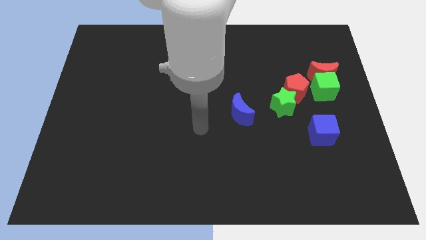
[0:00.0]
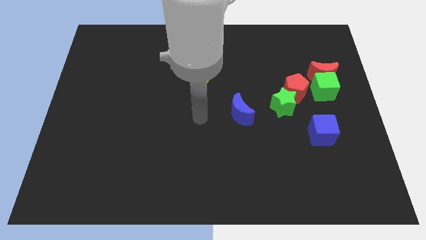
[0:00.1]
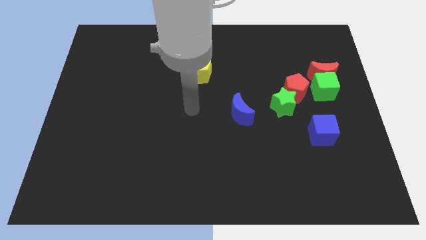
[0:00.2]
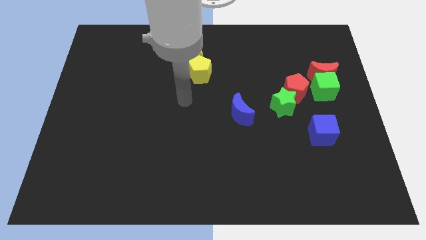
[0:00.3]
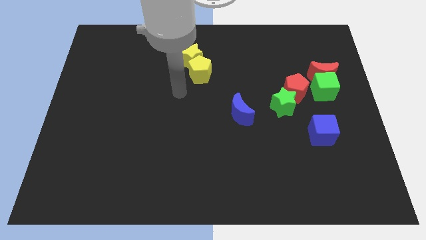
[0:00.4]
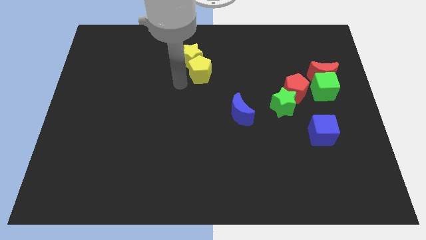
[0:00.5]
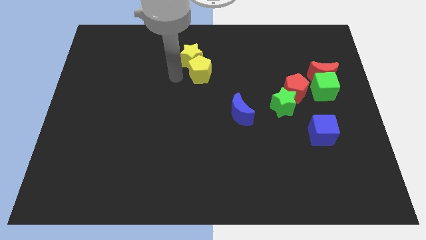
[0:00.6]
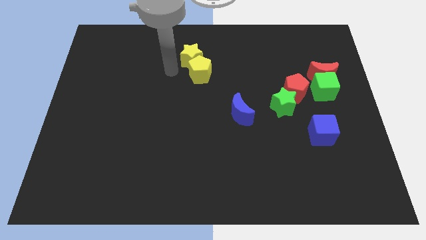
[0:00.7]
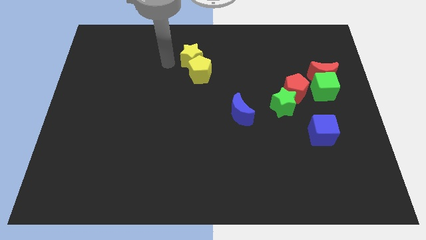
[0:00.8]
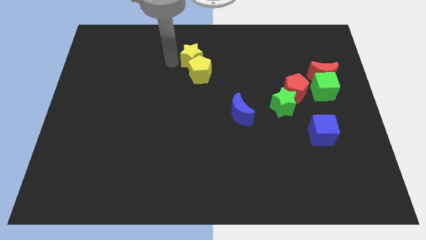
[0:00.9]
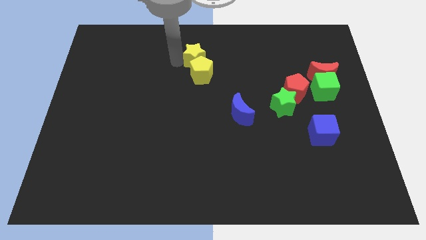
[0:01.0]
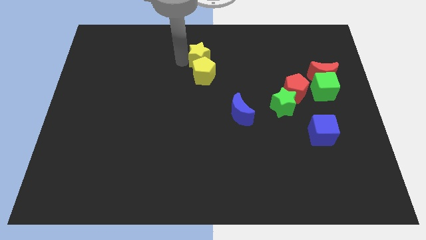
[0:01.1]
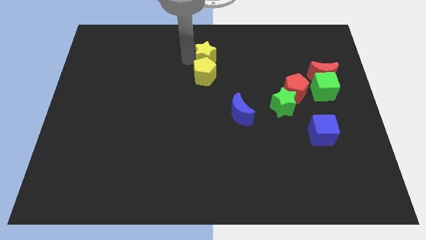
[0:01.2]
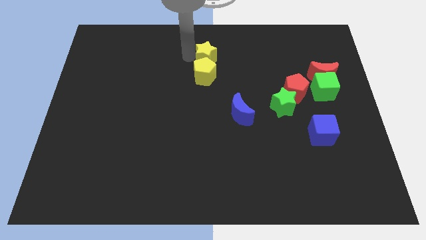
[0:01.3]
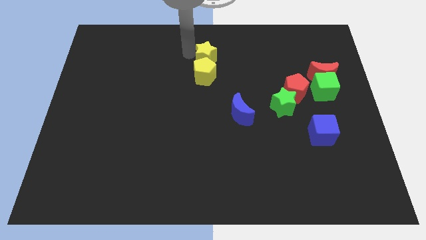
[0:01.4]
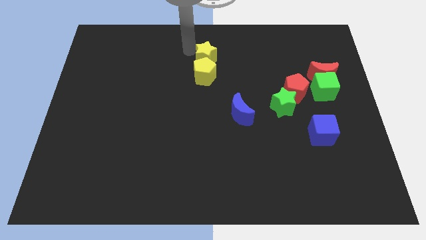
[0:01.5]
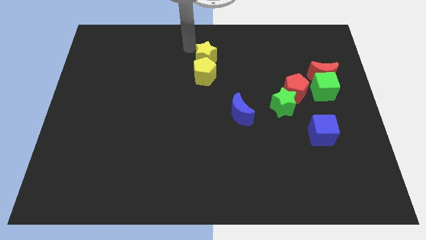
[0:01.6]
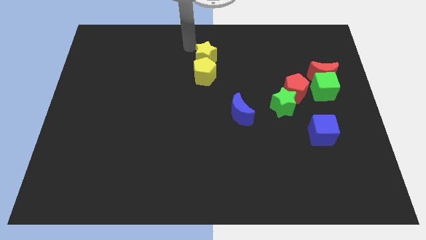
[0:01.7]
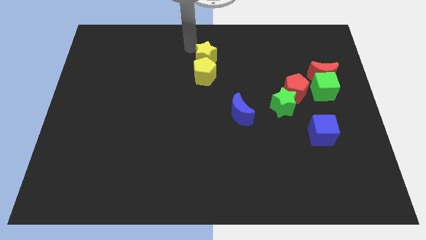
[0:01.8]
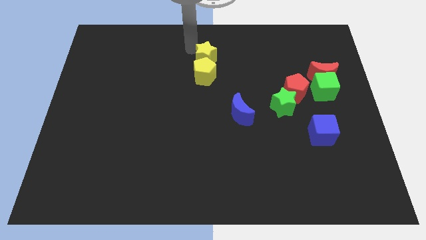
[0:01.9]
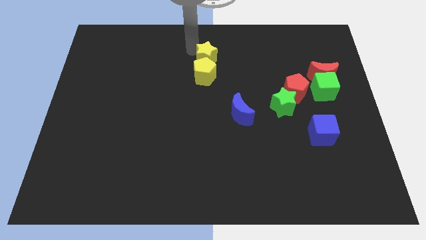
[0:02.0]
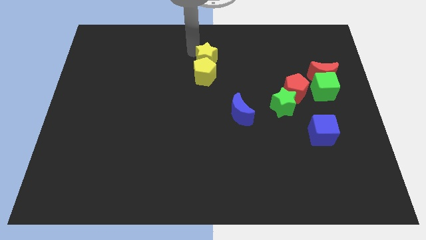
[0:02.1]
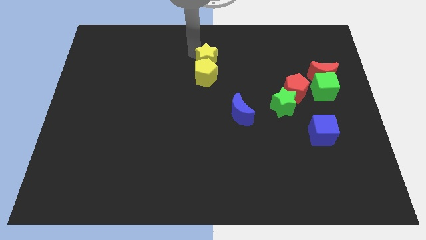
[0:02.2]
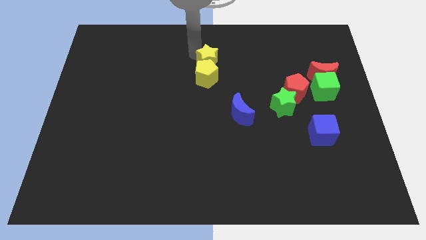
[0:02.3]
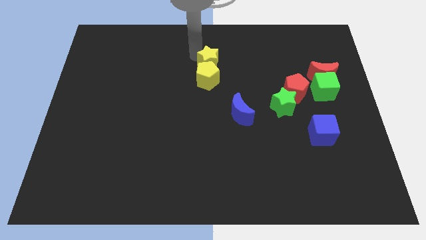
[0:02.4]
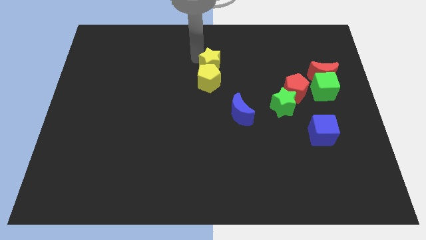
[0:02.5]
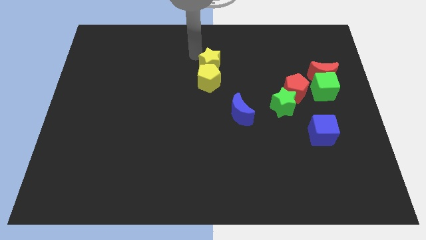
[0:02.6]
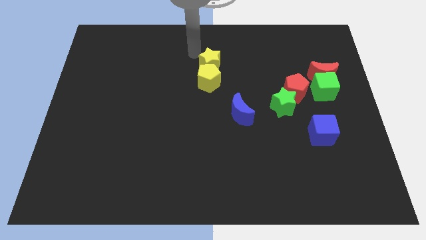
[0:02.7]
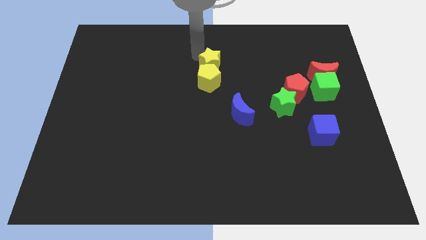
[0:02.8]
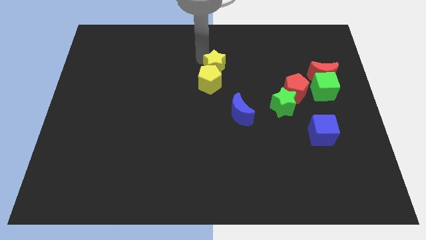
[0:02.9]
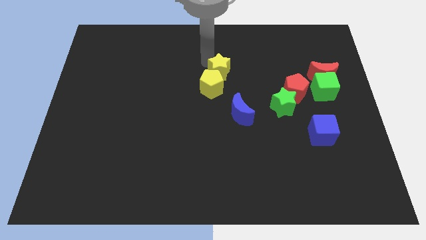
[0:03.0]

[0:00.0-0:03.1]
move the yellow star a little diagonally downwards and right

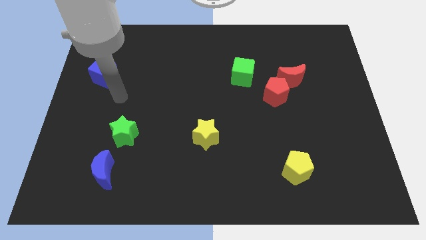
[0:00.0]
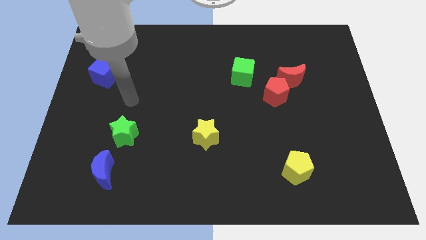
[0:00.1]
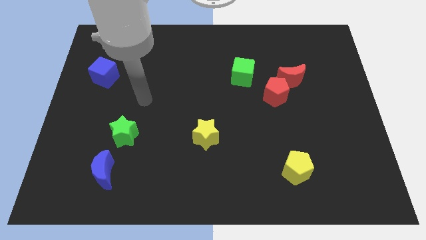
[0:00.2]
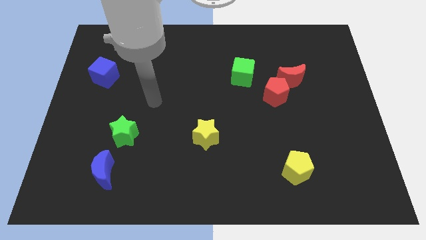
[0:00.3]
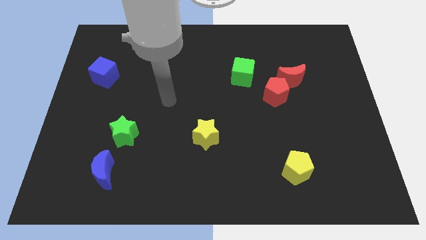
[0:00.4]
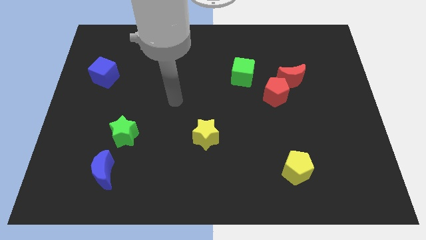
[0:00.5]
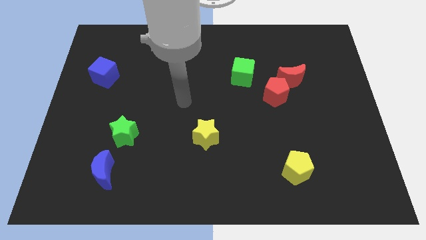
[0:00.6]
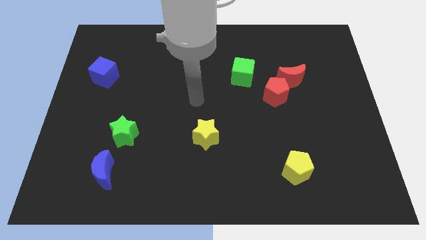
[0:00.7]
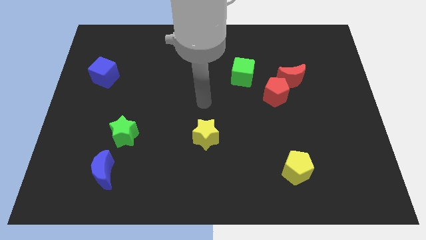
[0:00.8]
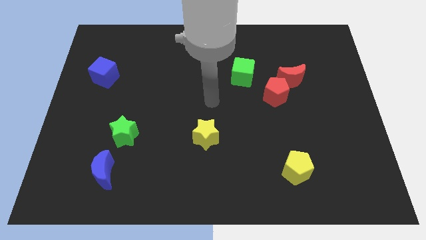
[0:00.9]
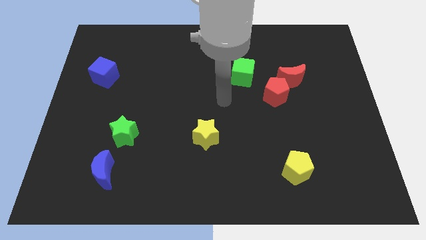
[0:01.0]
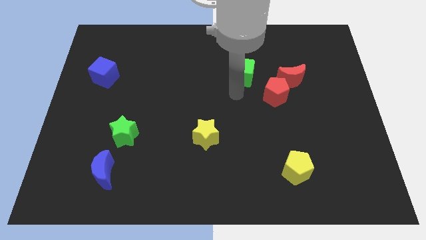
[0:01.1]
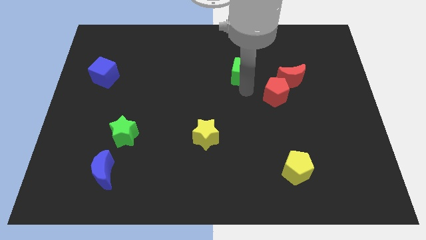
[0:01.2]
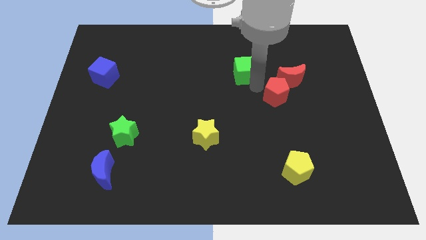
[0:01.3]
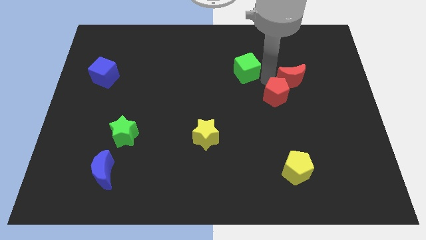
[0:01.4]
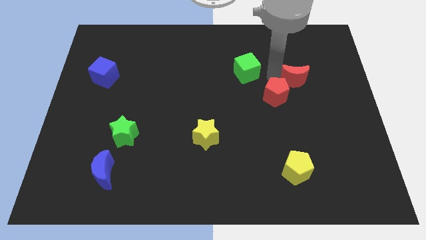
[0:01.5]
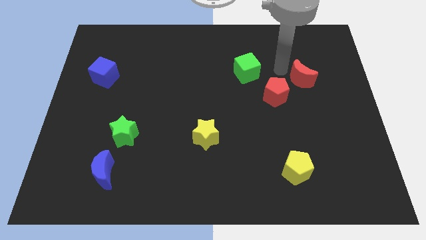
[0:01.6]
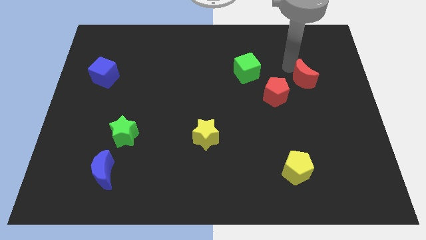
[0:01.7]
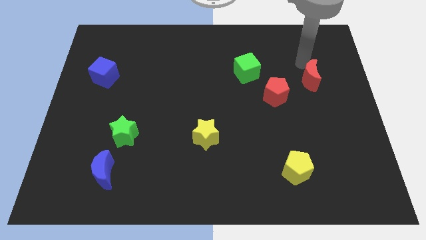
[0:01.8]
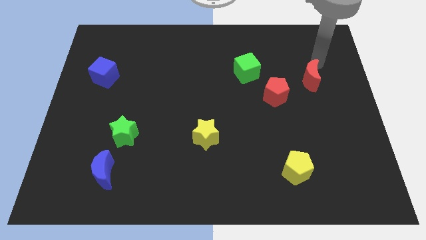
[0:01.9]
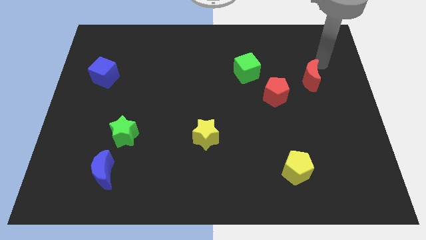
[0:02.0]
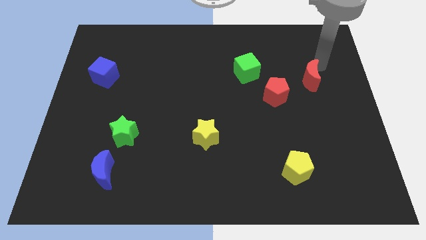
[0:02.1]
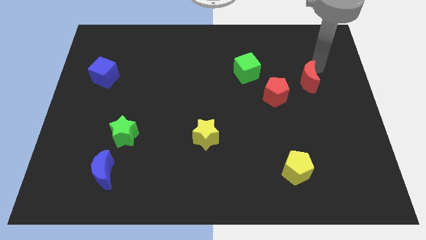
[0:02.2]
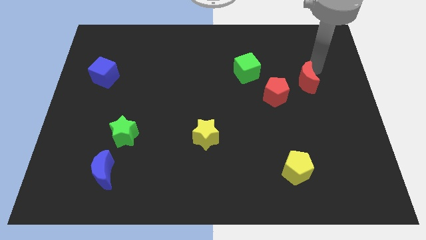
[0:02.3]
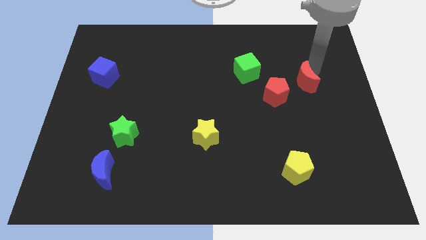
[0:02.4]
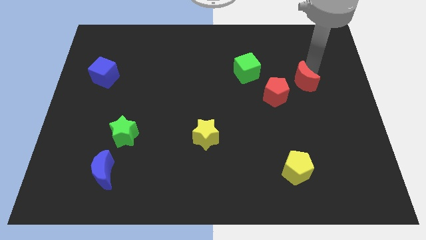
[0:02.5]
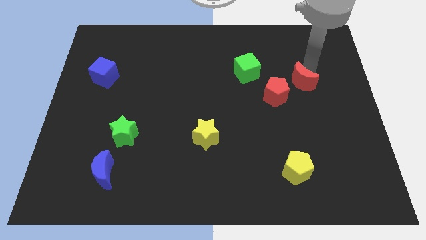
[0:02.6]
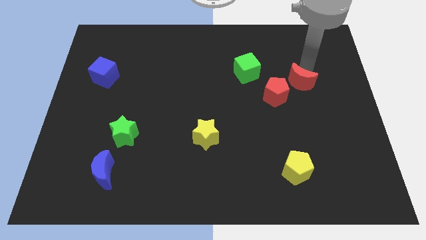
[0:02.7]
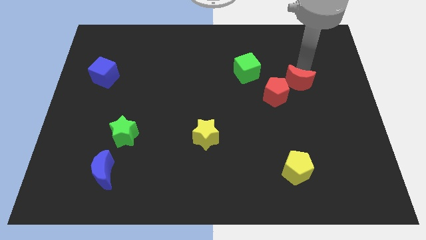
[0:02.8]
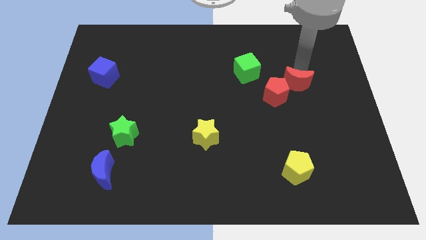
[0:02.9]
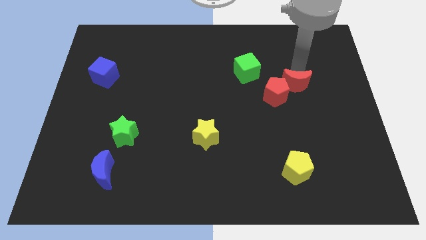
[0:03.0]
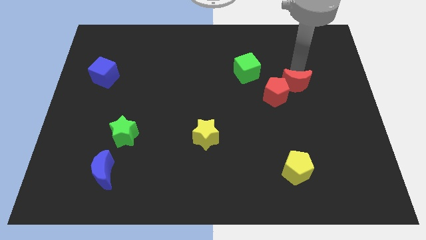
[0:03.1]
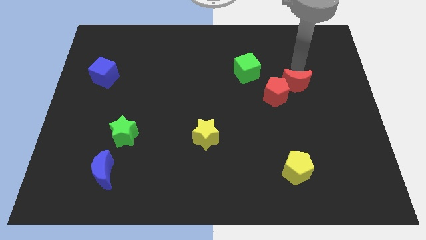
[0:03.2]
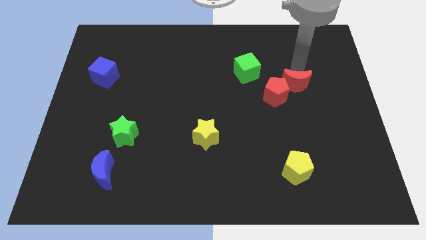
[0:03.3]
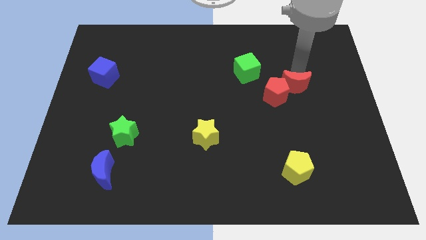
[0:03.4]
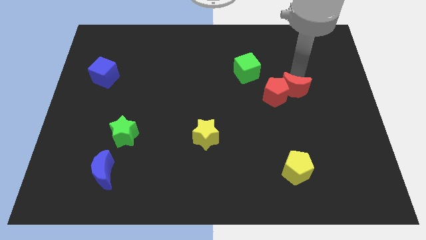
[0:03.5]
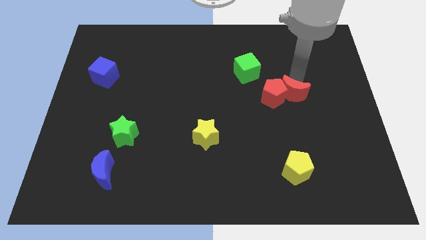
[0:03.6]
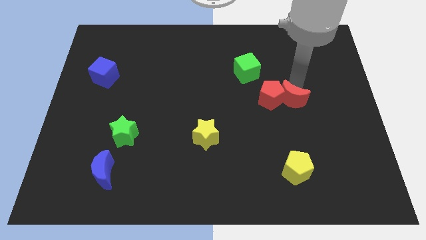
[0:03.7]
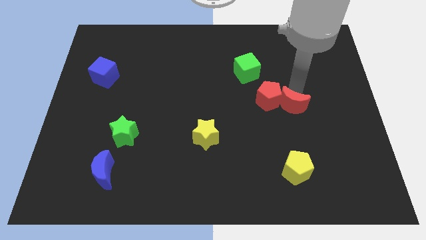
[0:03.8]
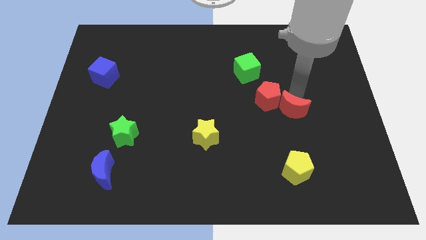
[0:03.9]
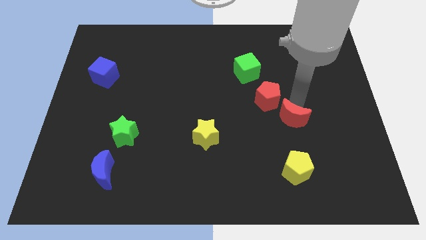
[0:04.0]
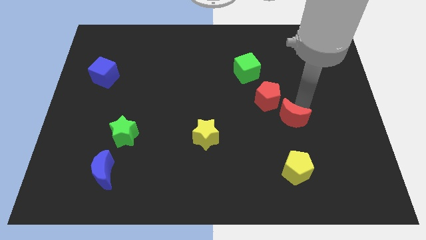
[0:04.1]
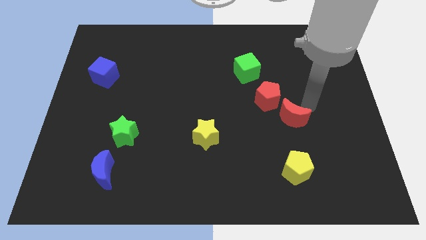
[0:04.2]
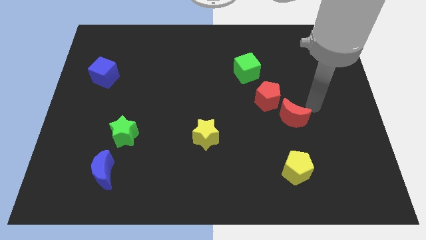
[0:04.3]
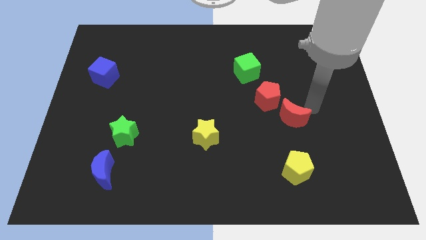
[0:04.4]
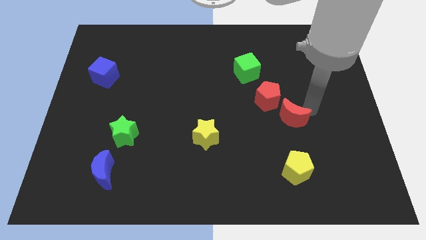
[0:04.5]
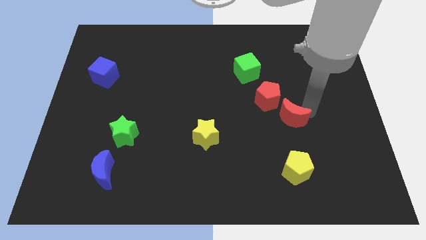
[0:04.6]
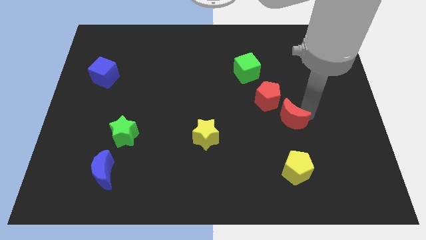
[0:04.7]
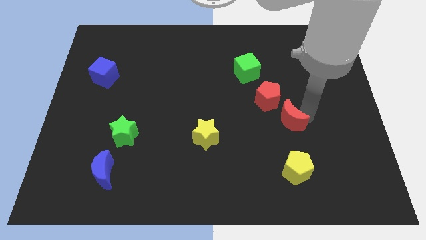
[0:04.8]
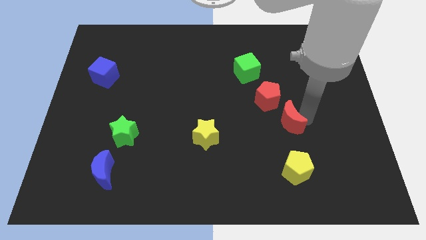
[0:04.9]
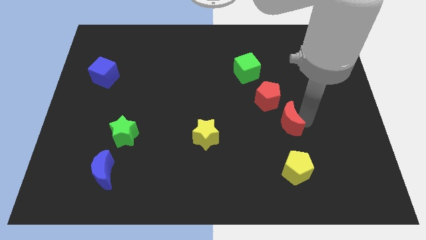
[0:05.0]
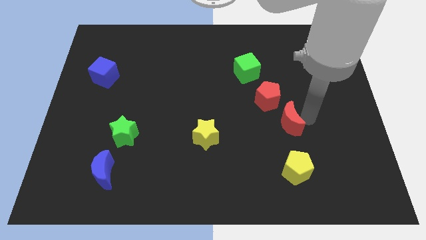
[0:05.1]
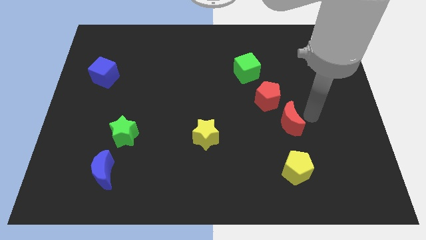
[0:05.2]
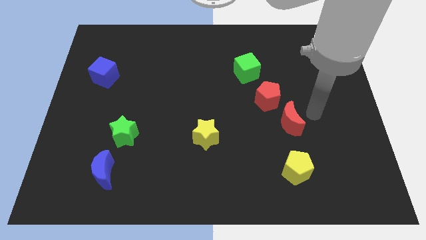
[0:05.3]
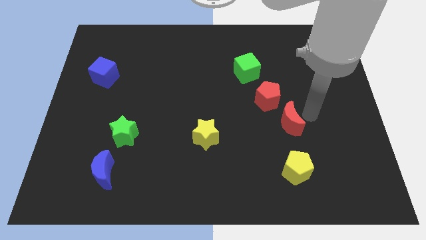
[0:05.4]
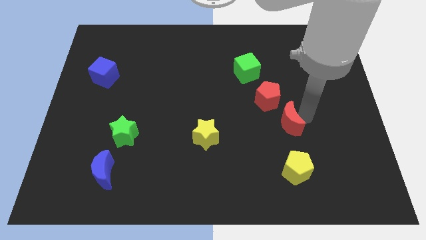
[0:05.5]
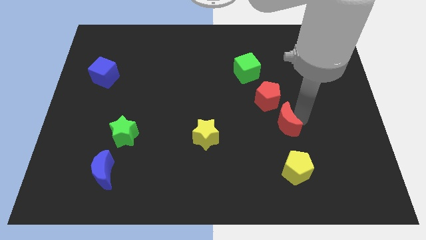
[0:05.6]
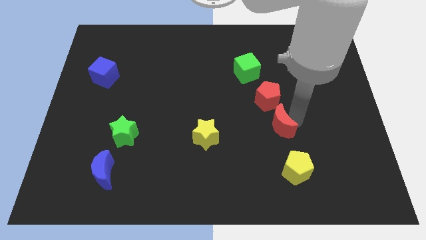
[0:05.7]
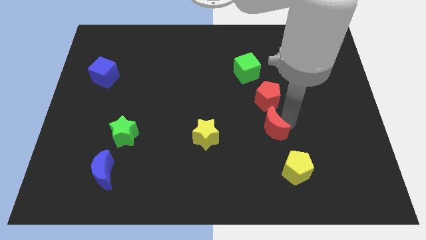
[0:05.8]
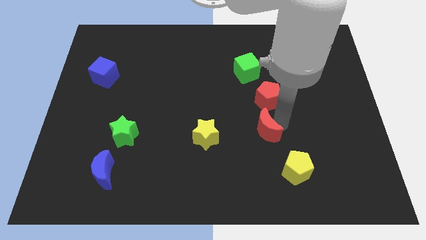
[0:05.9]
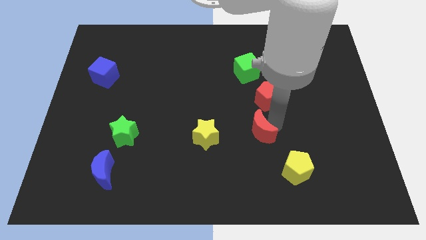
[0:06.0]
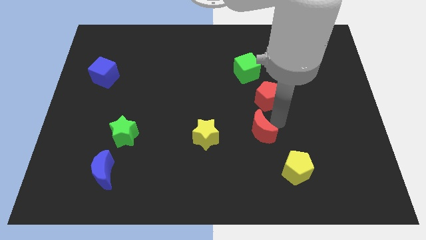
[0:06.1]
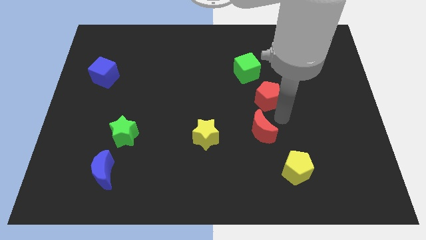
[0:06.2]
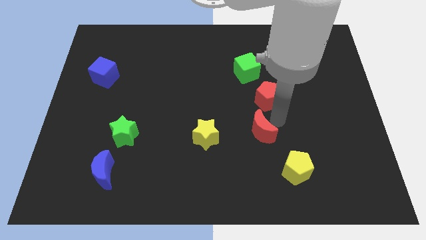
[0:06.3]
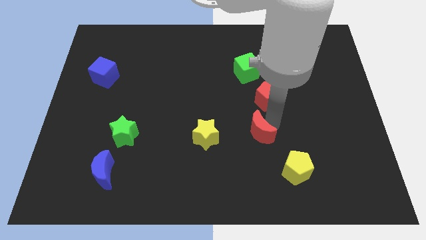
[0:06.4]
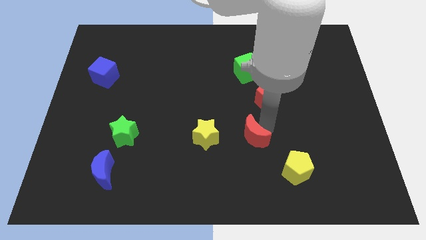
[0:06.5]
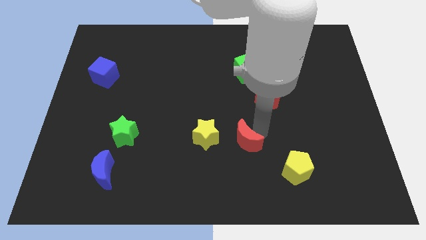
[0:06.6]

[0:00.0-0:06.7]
slide the red moon diagonally downwards and to the left
